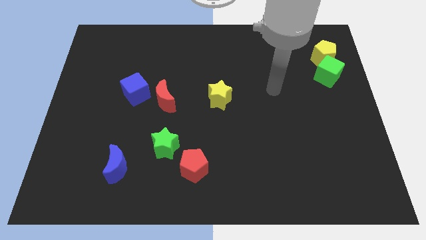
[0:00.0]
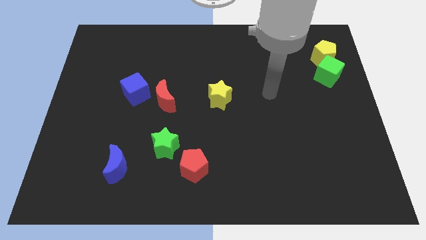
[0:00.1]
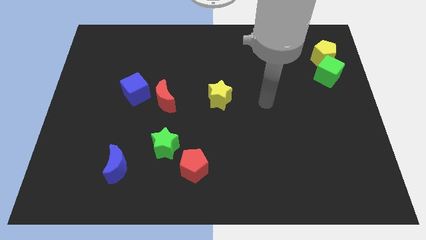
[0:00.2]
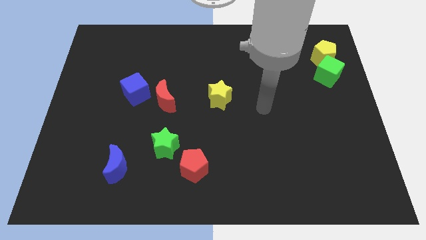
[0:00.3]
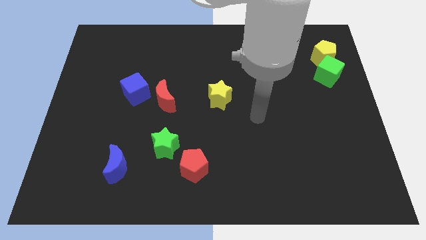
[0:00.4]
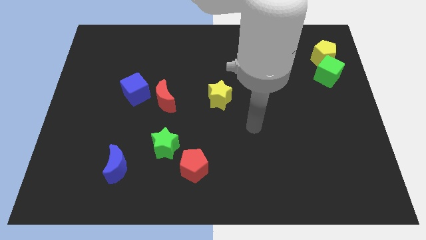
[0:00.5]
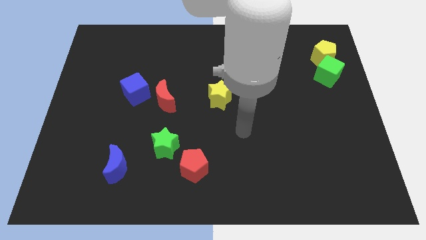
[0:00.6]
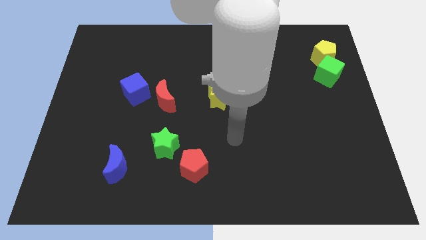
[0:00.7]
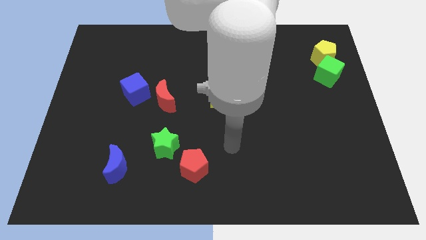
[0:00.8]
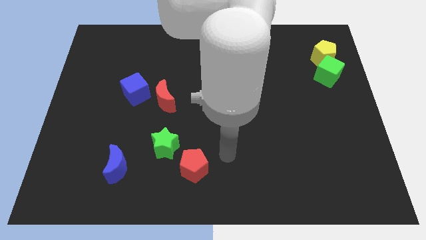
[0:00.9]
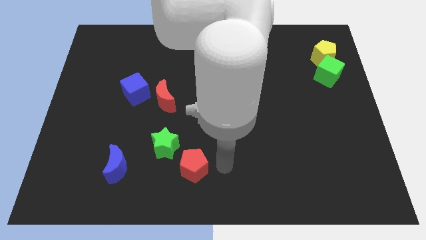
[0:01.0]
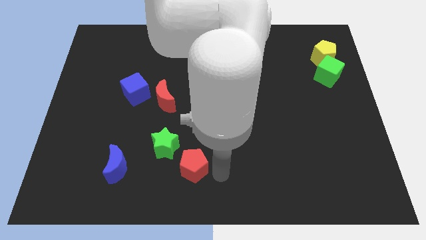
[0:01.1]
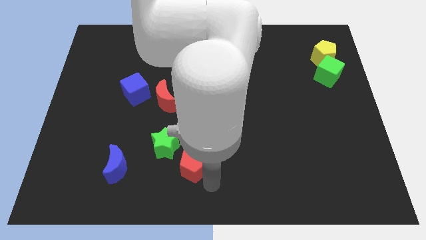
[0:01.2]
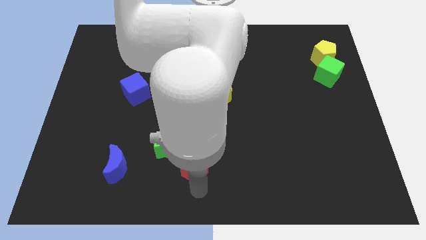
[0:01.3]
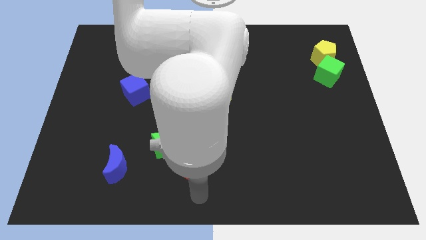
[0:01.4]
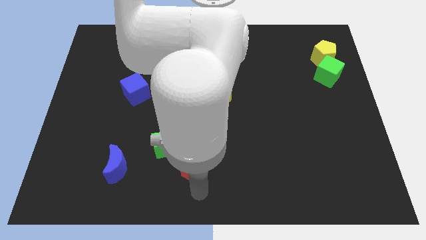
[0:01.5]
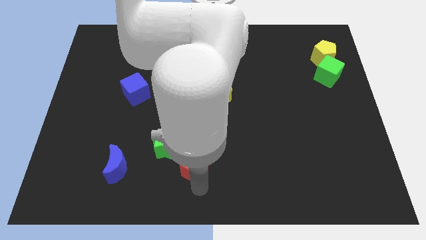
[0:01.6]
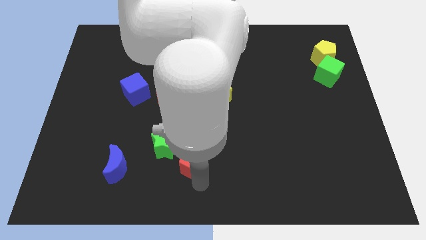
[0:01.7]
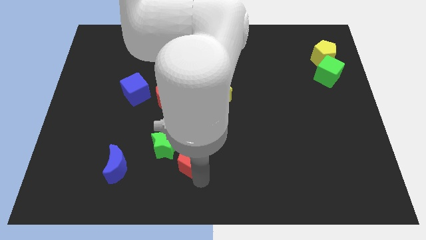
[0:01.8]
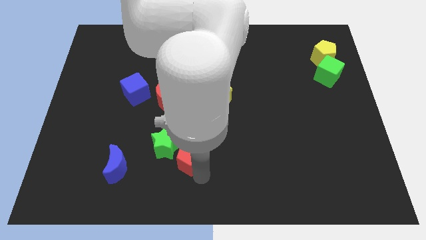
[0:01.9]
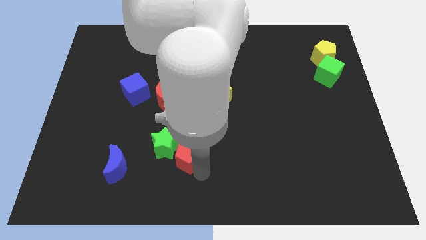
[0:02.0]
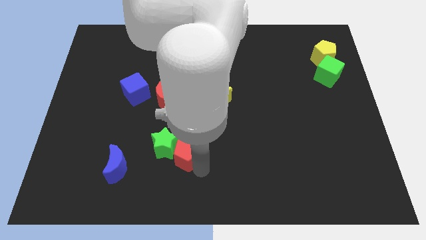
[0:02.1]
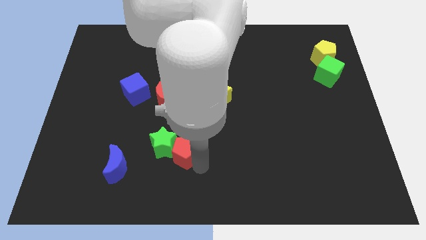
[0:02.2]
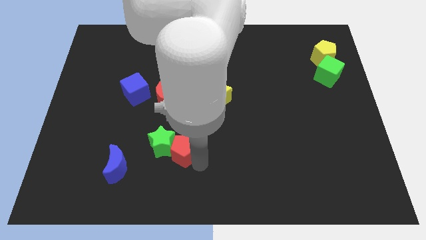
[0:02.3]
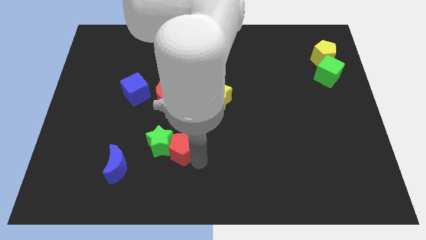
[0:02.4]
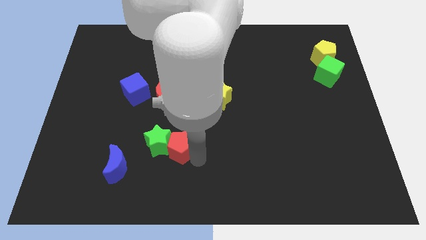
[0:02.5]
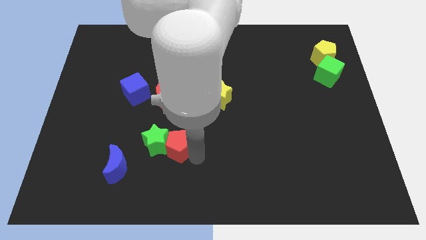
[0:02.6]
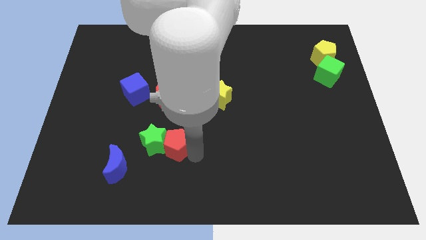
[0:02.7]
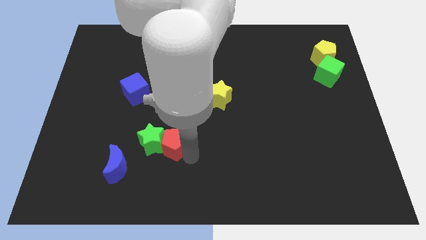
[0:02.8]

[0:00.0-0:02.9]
slightly push the red pentagon diagonally up and to the left

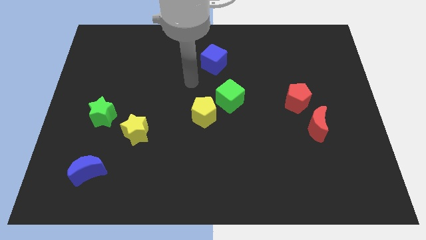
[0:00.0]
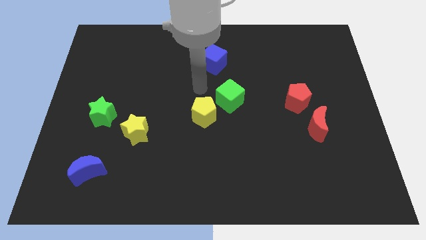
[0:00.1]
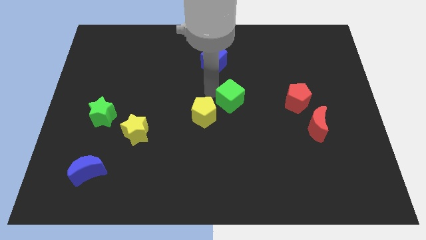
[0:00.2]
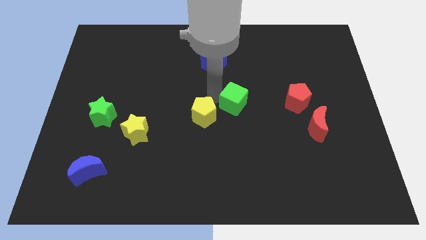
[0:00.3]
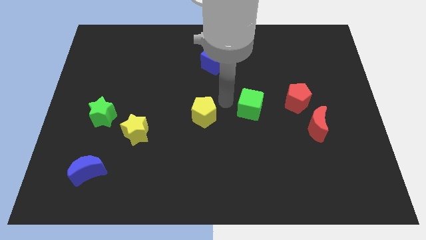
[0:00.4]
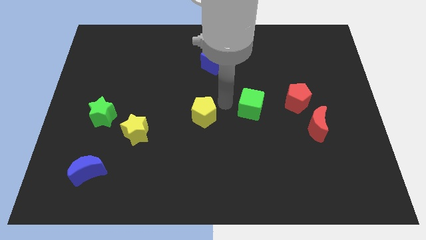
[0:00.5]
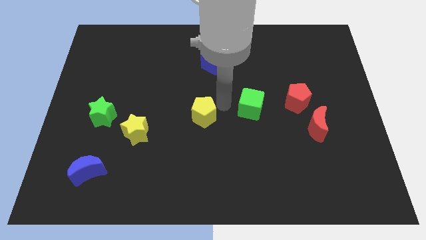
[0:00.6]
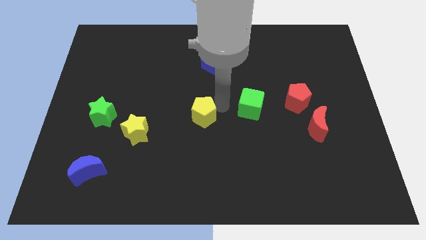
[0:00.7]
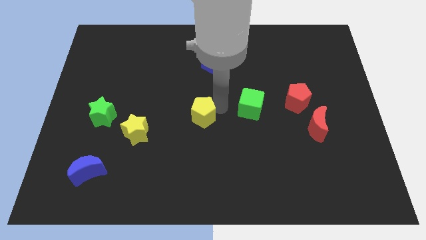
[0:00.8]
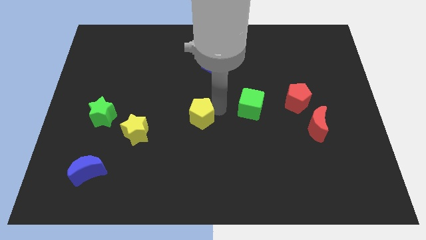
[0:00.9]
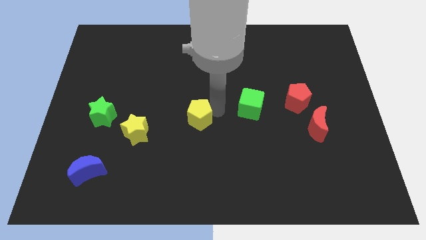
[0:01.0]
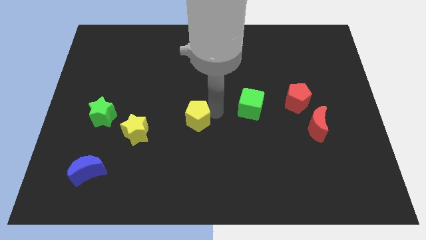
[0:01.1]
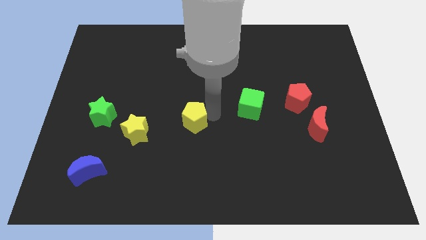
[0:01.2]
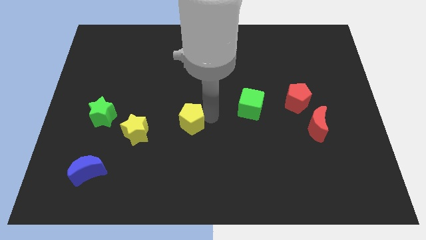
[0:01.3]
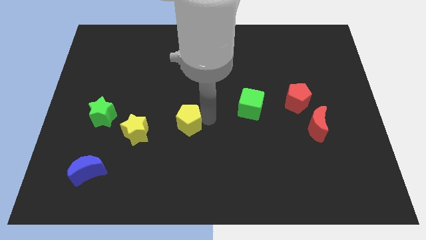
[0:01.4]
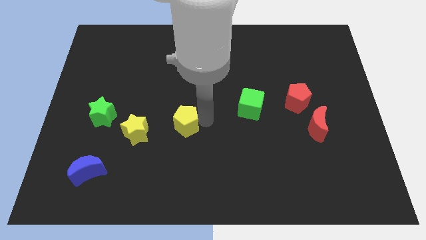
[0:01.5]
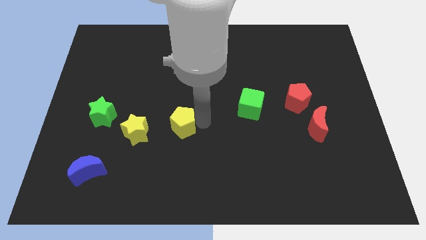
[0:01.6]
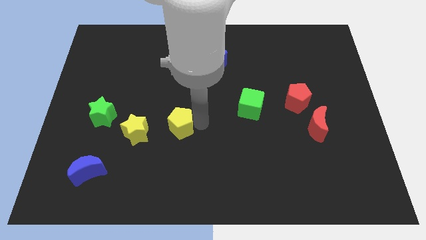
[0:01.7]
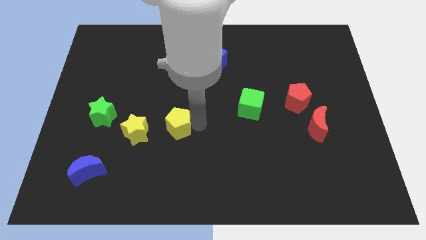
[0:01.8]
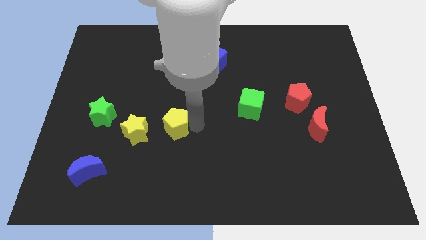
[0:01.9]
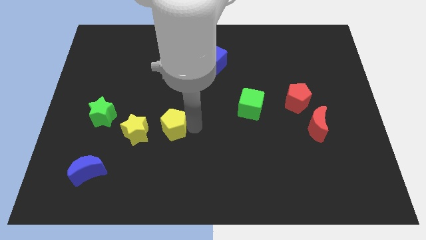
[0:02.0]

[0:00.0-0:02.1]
slightly slide the yellow pentagon diagonally down and to the left

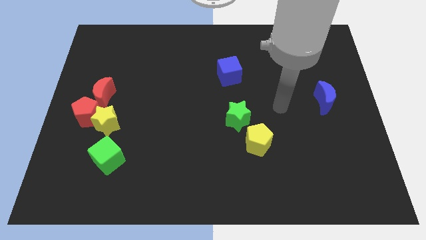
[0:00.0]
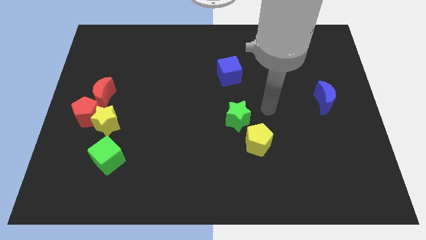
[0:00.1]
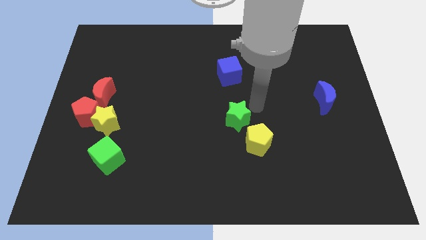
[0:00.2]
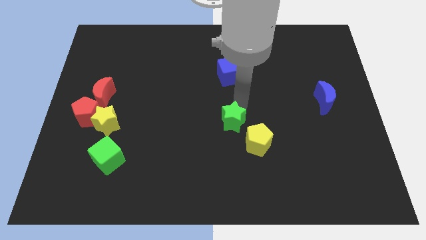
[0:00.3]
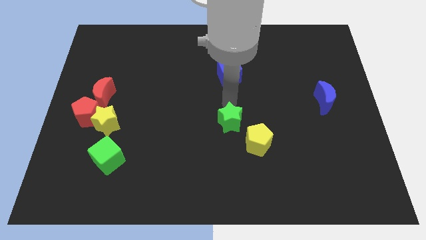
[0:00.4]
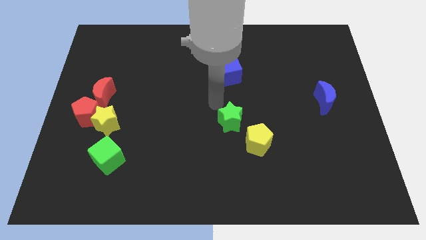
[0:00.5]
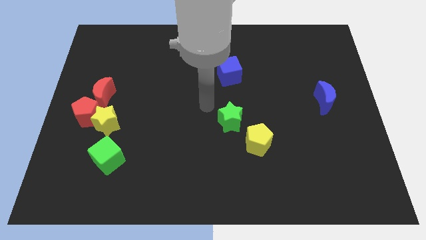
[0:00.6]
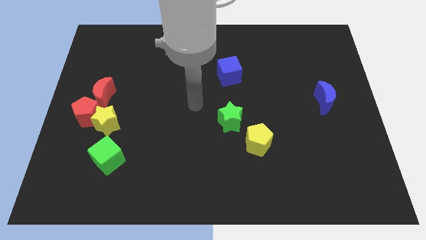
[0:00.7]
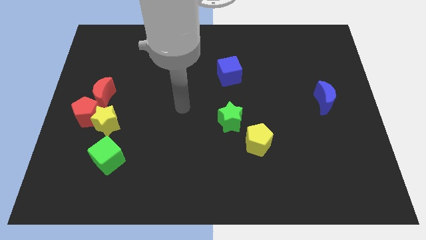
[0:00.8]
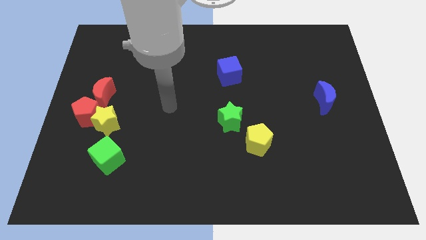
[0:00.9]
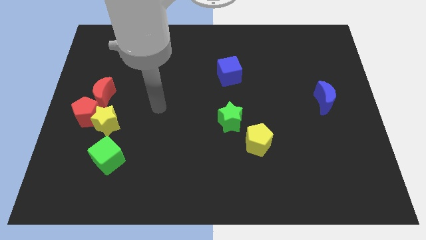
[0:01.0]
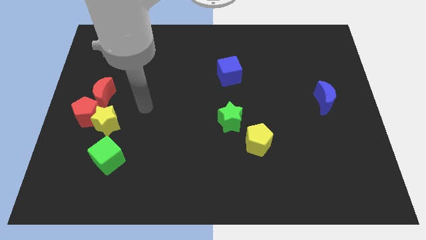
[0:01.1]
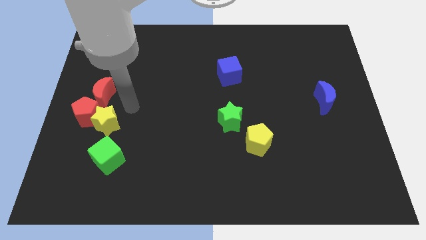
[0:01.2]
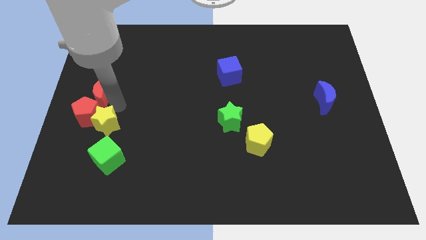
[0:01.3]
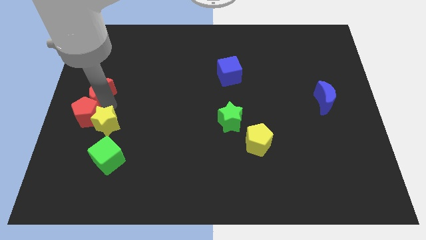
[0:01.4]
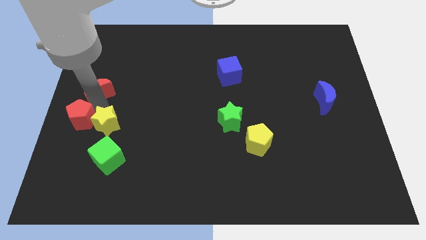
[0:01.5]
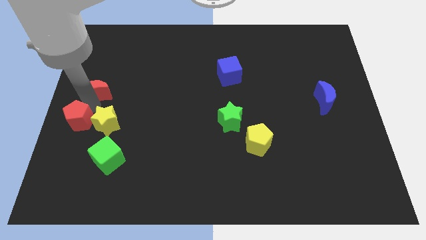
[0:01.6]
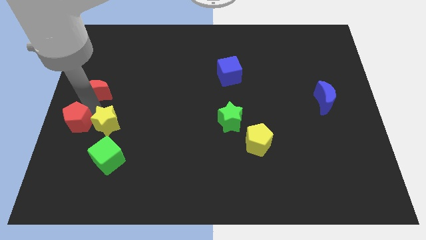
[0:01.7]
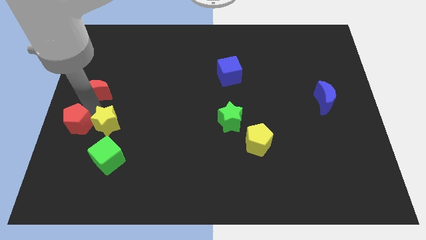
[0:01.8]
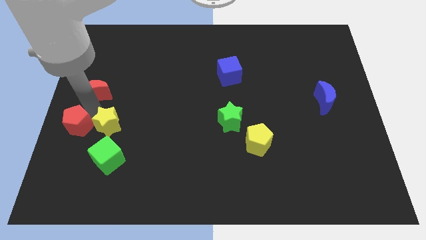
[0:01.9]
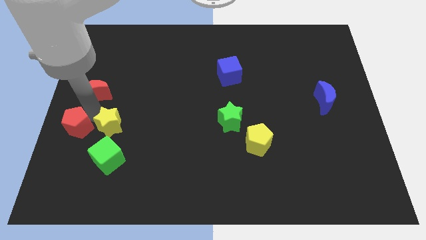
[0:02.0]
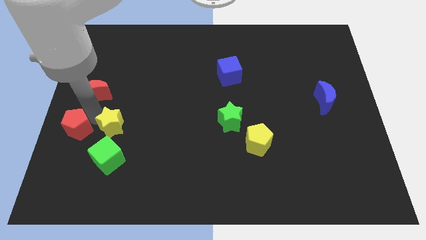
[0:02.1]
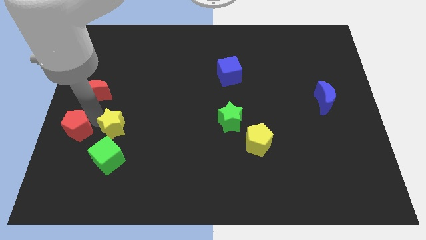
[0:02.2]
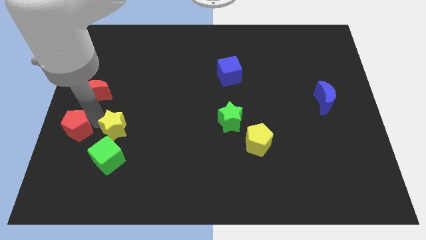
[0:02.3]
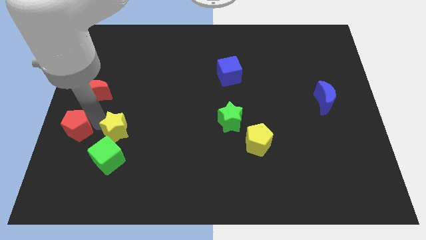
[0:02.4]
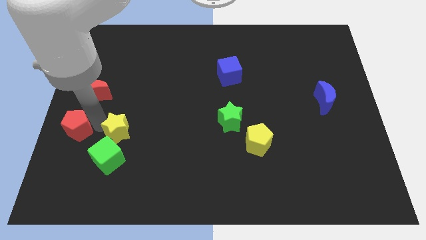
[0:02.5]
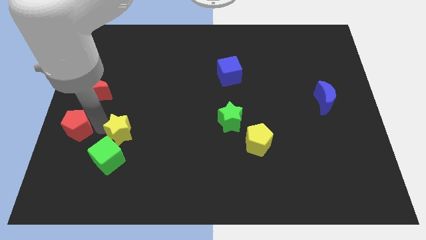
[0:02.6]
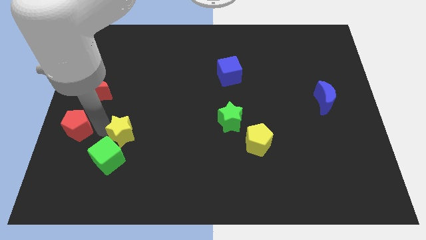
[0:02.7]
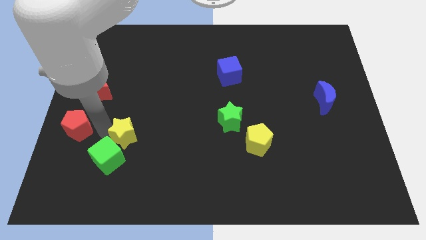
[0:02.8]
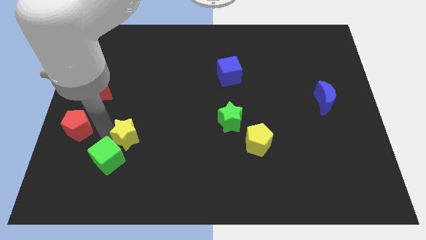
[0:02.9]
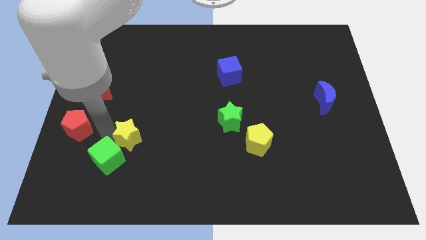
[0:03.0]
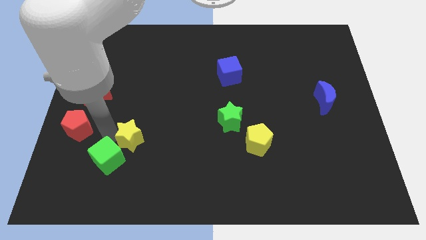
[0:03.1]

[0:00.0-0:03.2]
slightly push the yellow star down and right diagonally
